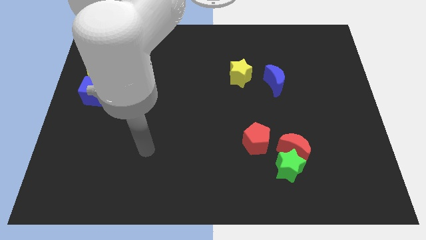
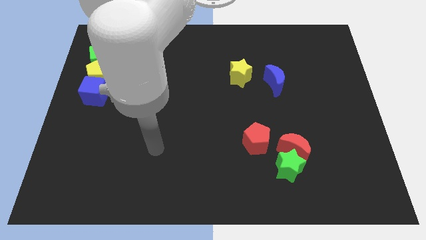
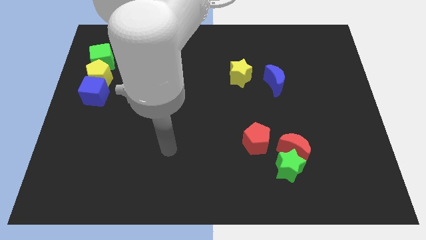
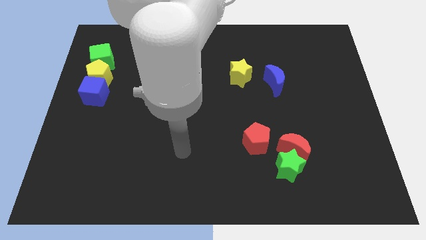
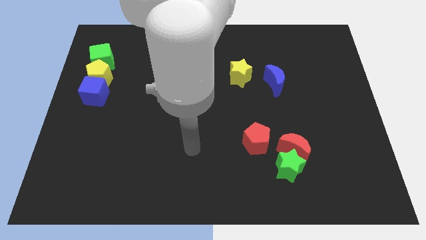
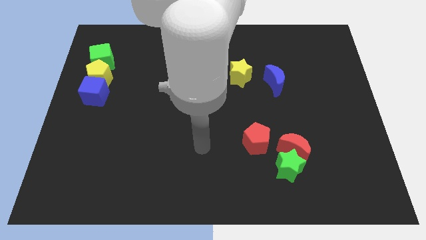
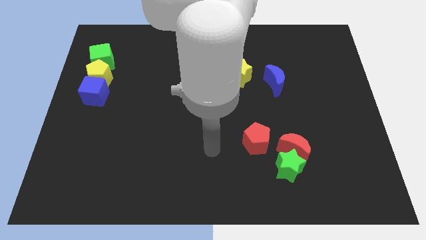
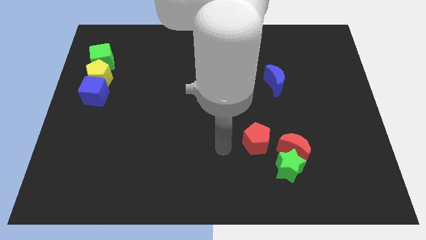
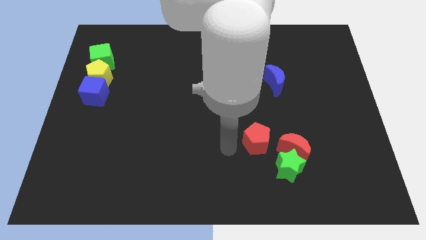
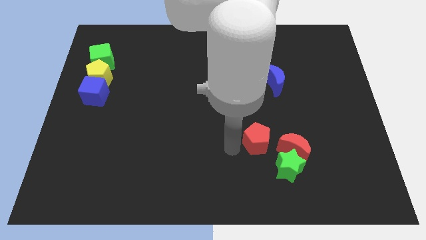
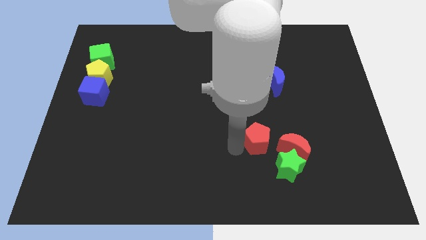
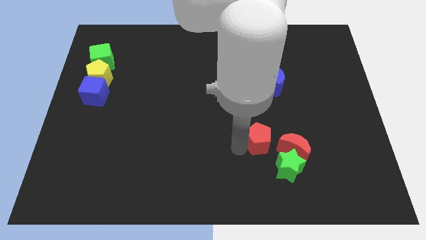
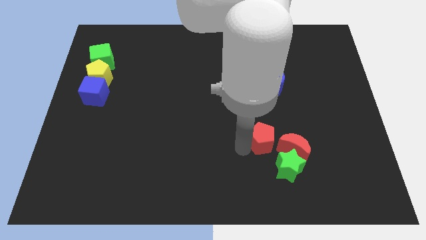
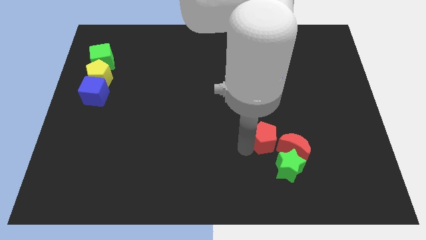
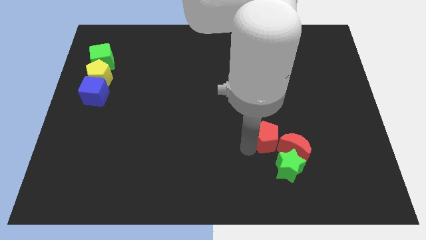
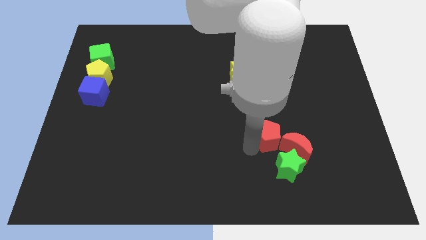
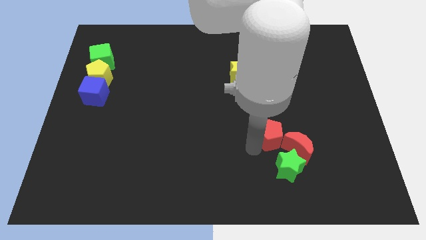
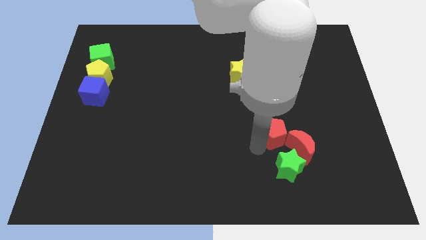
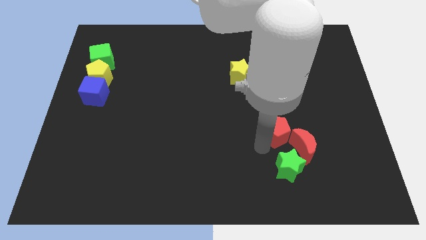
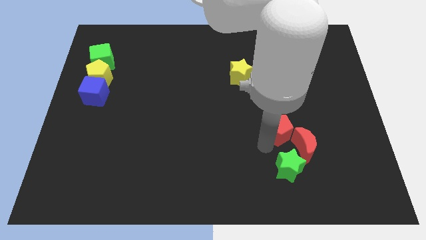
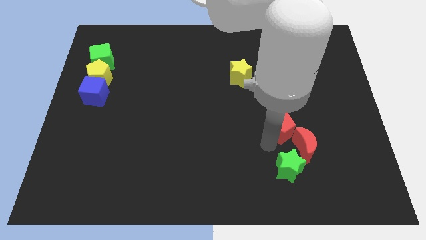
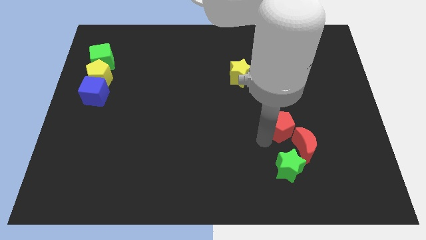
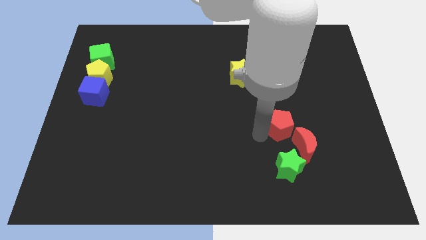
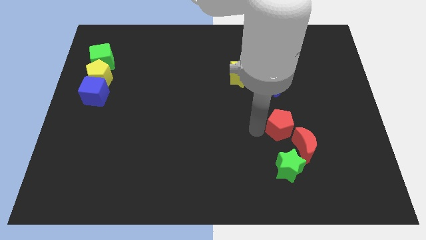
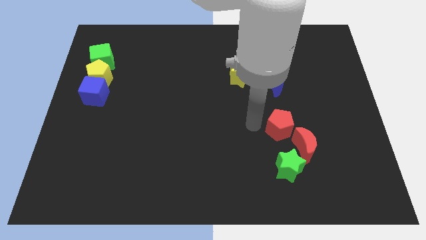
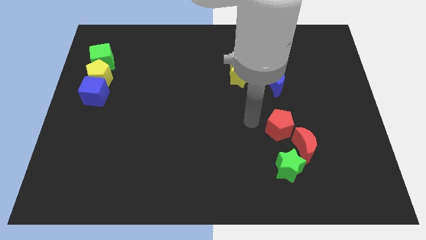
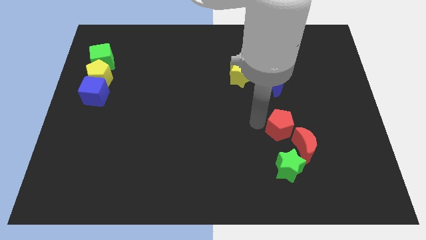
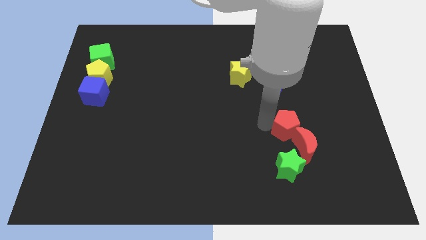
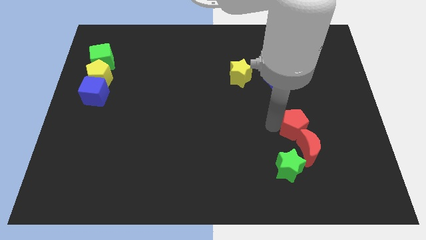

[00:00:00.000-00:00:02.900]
slide the red pentagon to the right a little

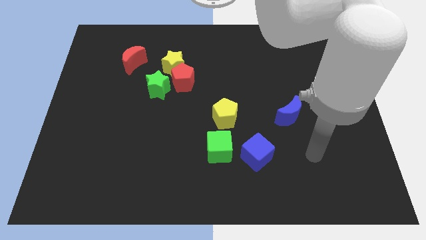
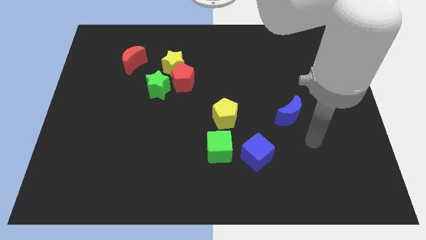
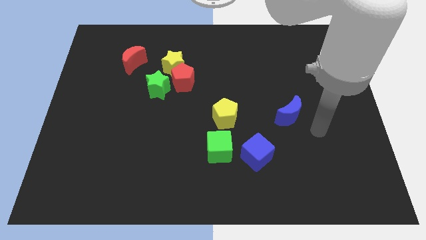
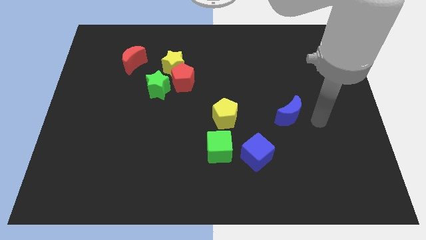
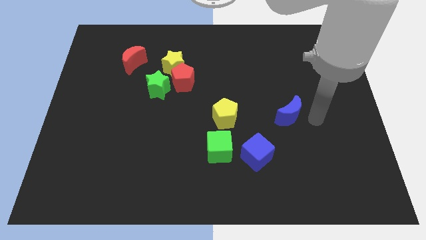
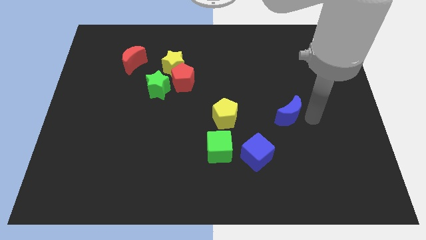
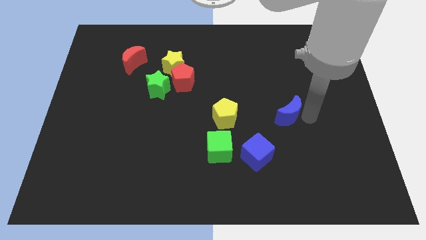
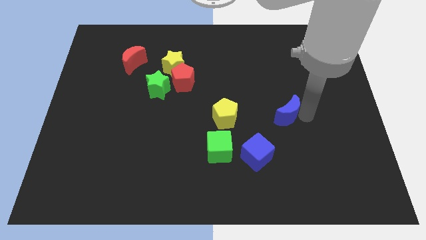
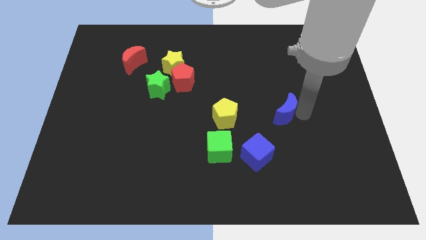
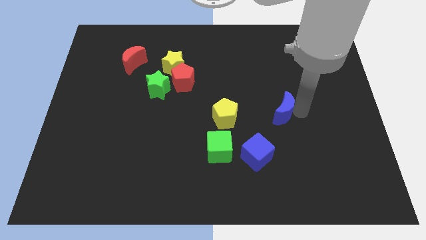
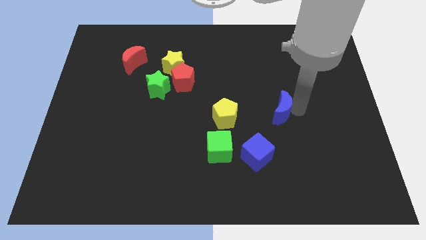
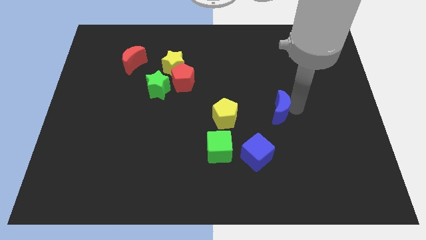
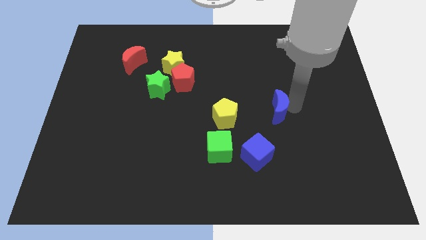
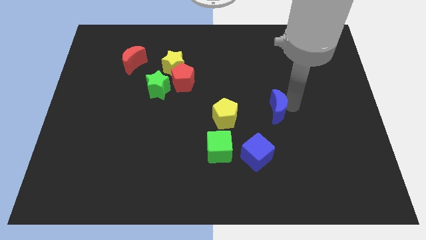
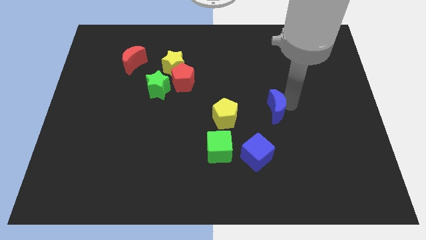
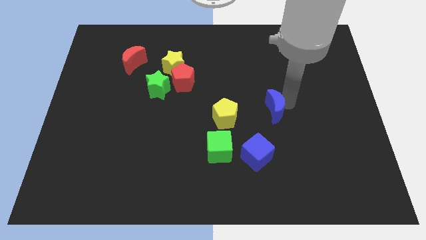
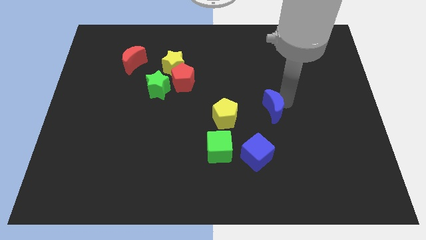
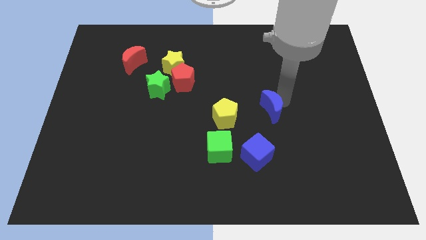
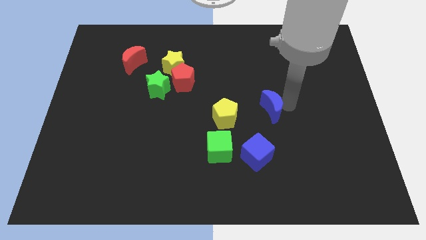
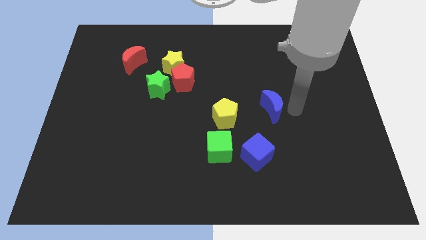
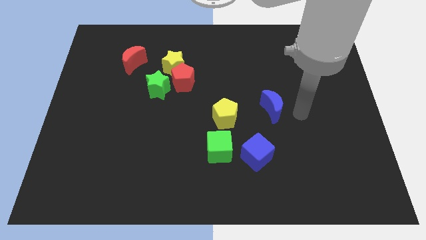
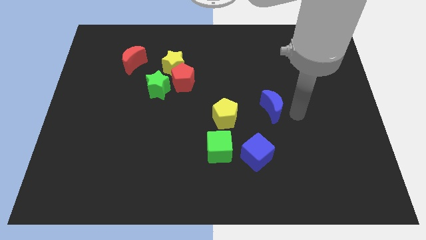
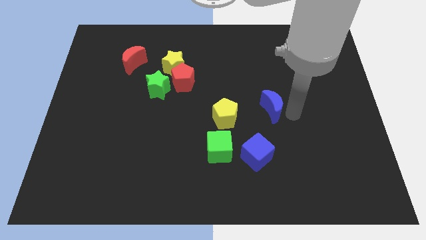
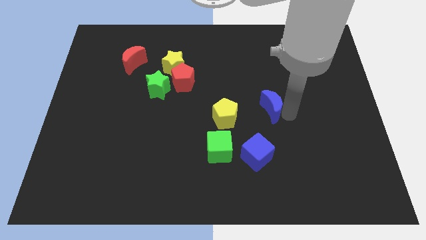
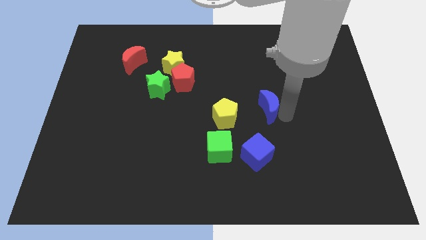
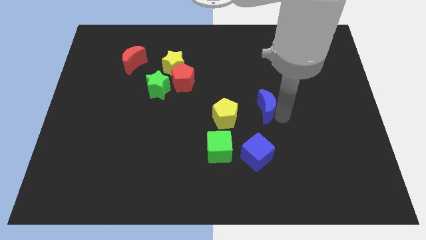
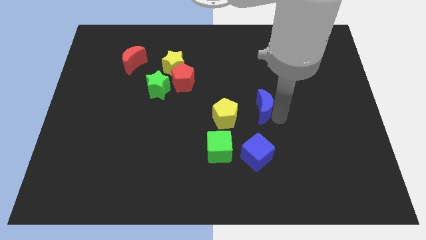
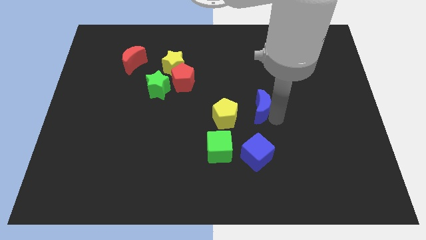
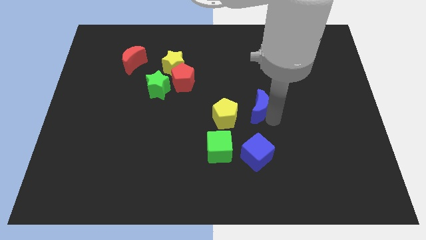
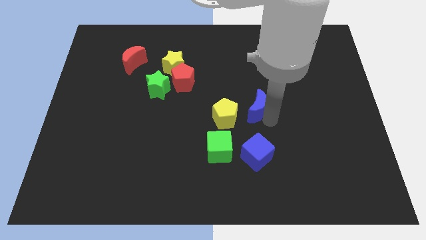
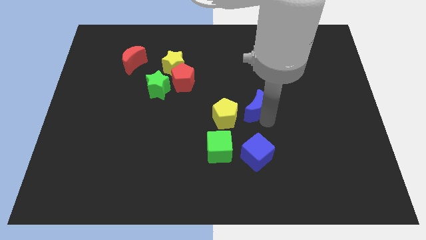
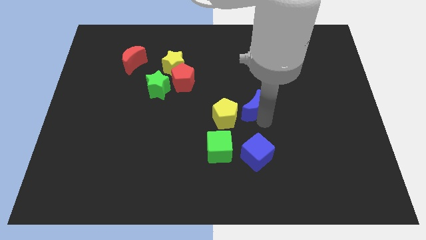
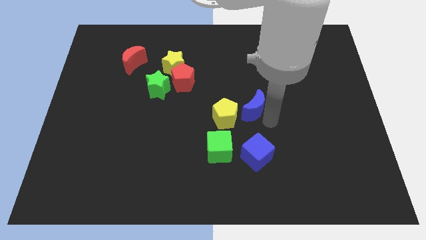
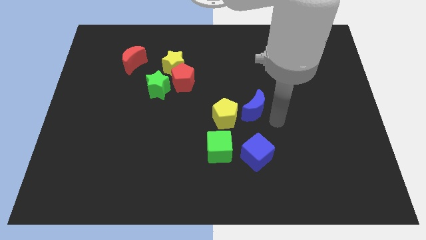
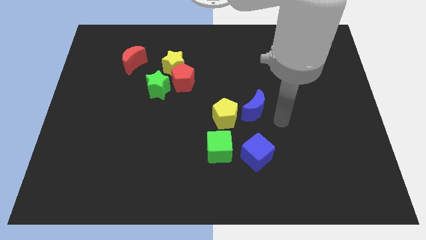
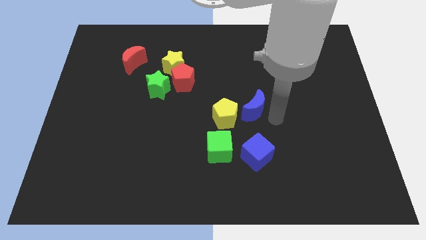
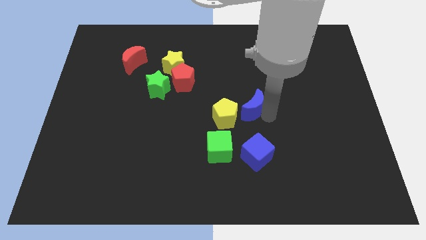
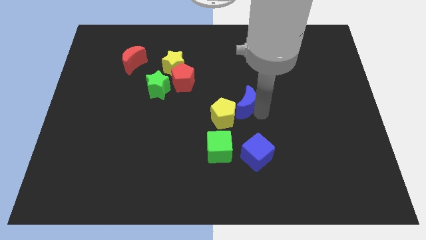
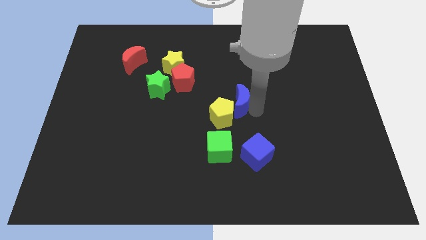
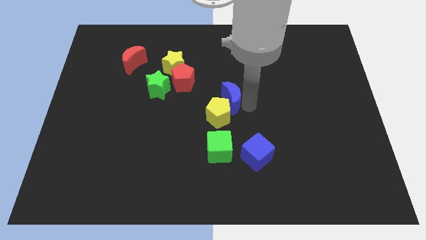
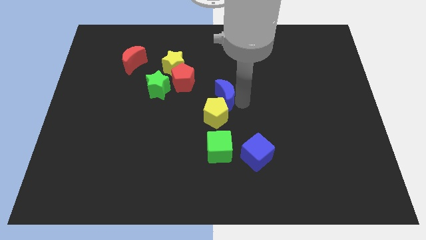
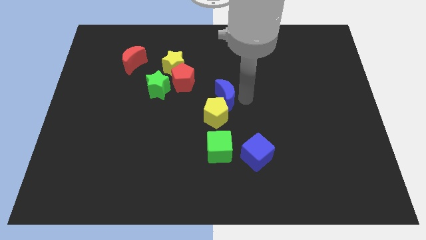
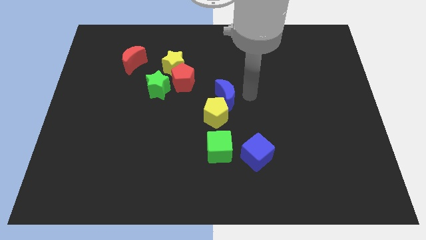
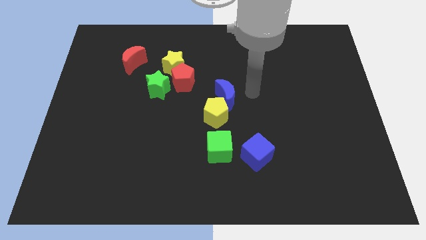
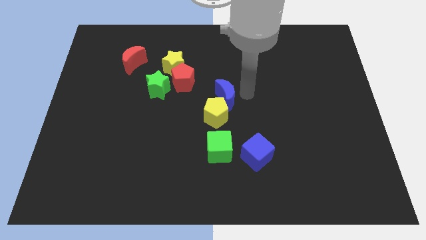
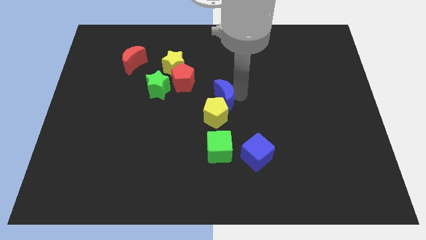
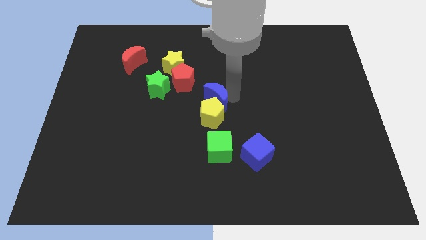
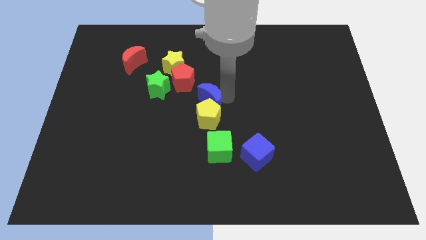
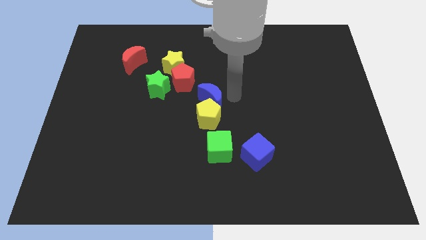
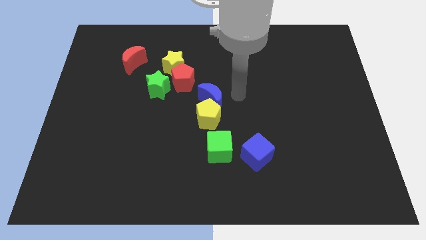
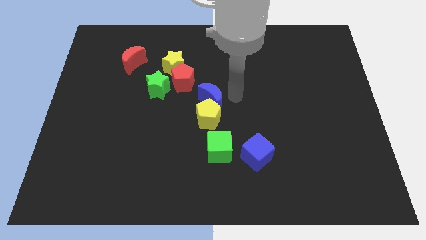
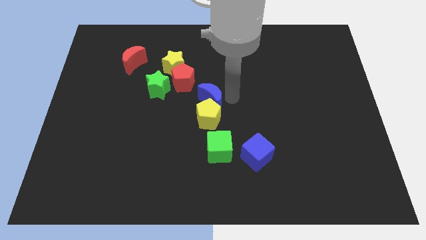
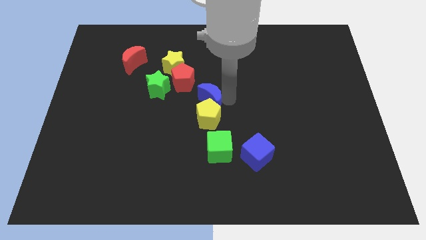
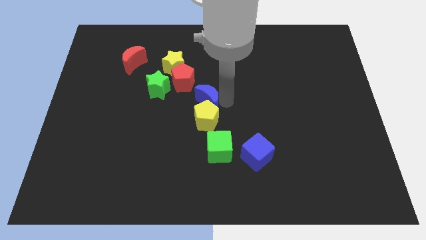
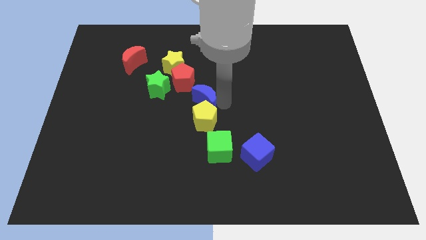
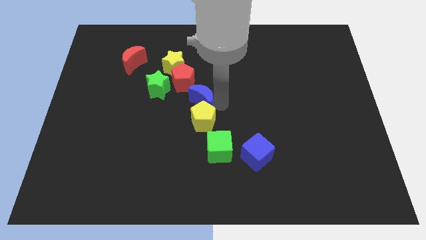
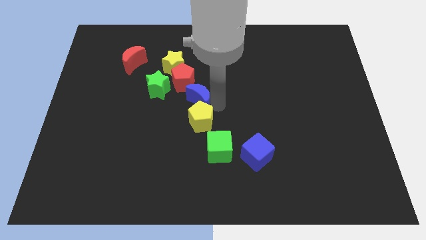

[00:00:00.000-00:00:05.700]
push the blue moon left
